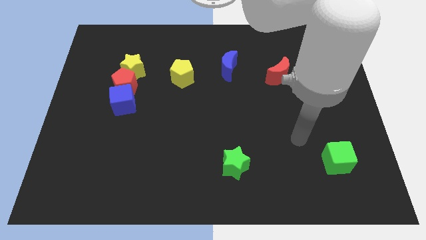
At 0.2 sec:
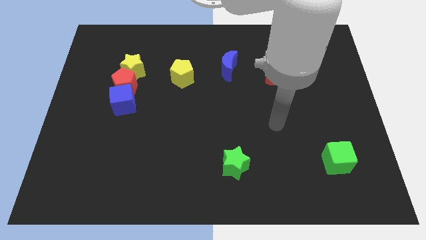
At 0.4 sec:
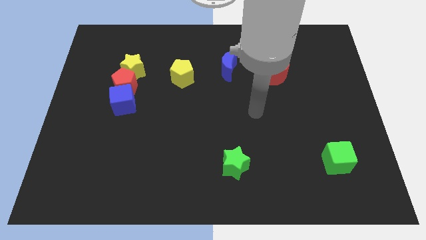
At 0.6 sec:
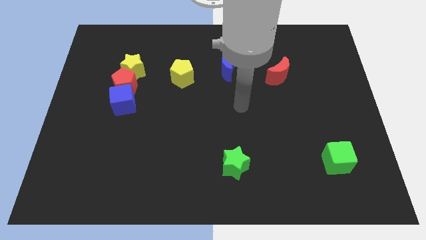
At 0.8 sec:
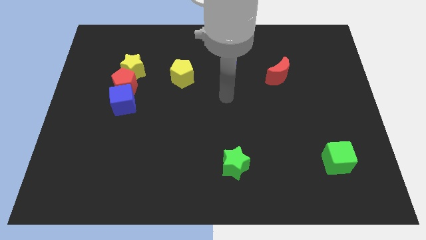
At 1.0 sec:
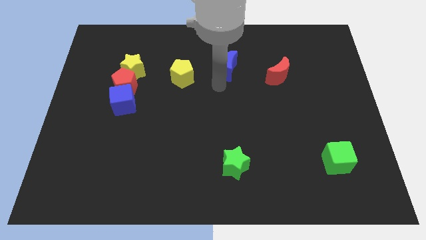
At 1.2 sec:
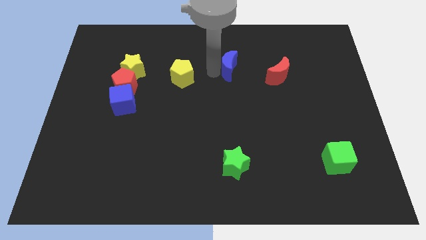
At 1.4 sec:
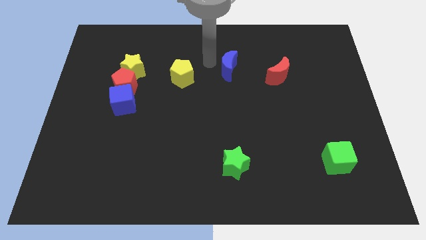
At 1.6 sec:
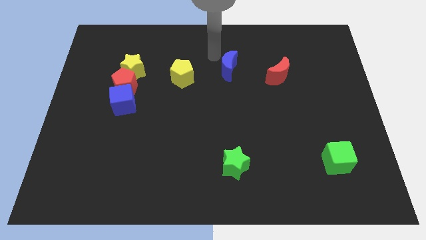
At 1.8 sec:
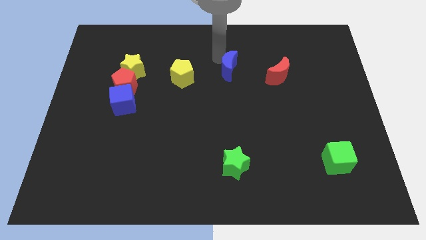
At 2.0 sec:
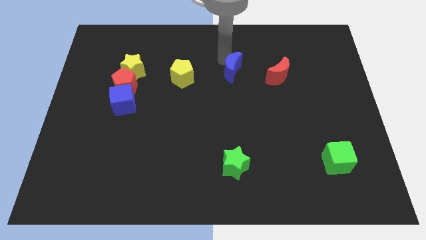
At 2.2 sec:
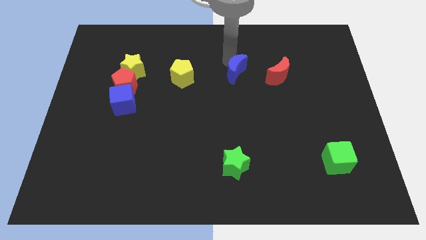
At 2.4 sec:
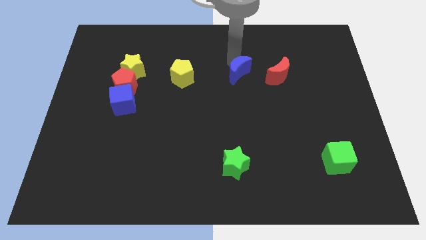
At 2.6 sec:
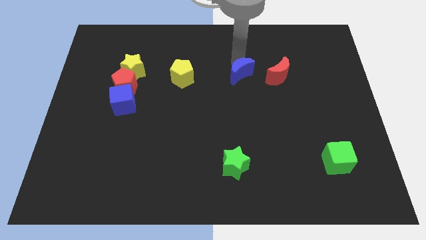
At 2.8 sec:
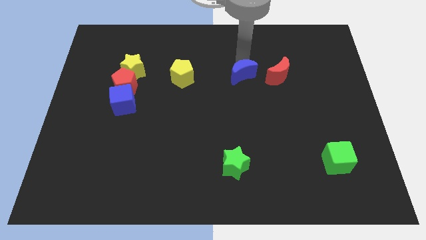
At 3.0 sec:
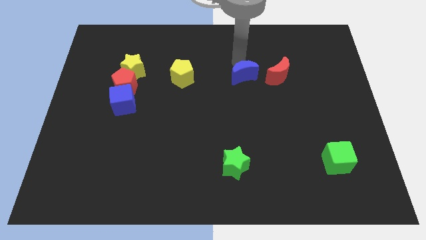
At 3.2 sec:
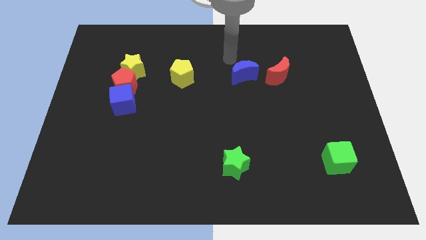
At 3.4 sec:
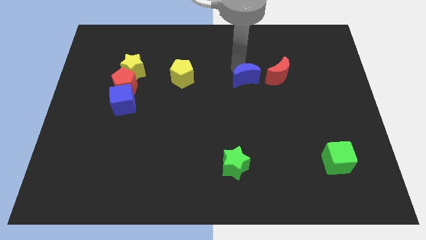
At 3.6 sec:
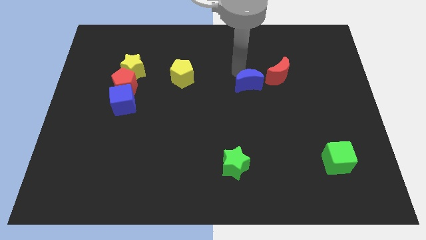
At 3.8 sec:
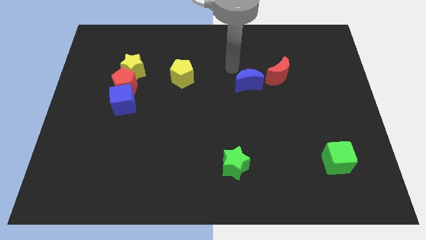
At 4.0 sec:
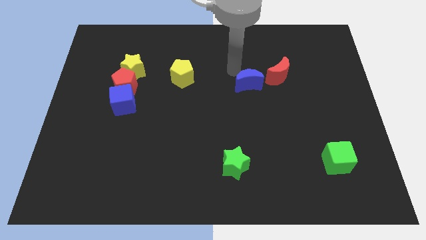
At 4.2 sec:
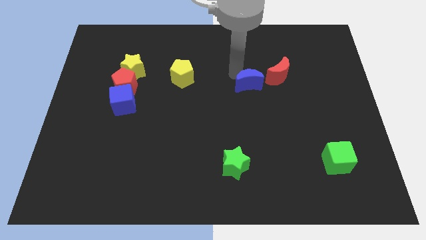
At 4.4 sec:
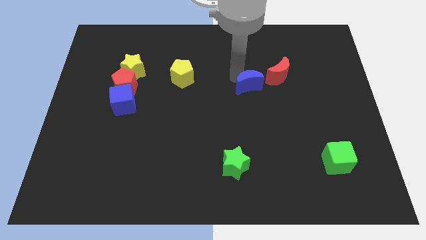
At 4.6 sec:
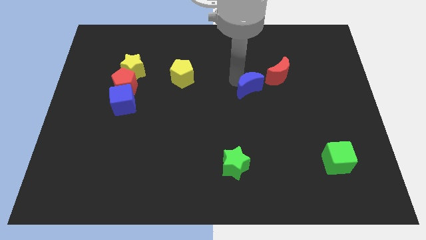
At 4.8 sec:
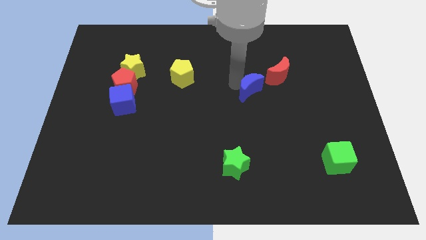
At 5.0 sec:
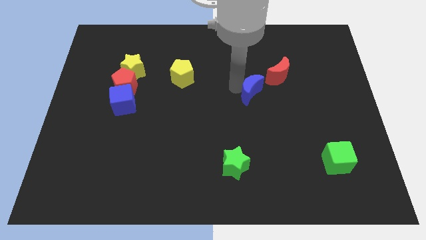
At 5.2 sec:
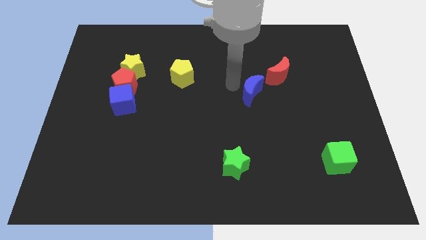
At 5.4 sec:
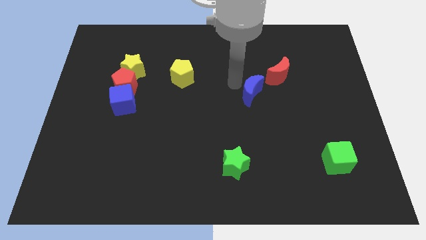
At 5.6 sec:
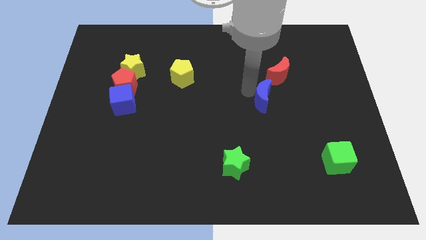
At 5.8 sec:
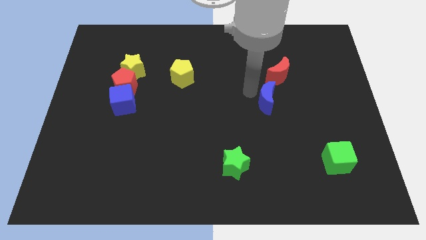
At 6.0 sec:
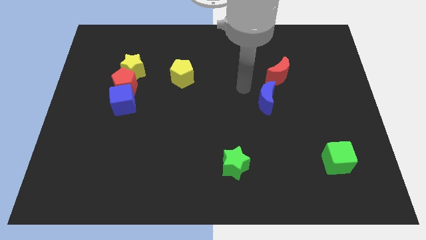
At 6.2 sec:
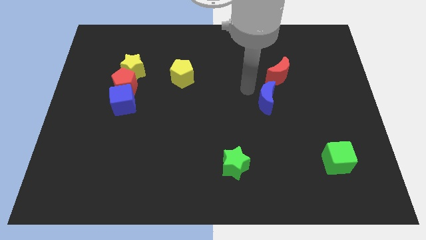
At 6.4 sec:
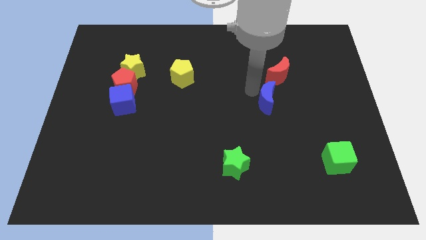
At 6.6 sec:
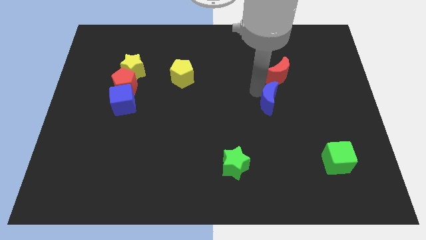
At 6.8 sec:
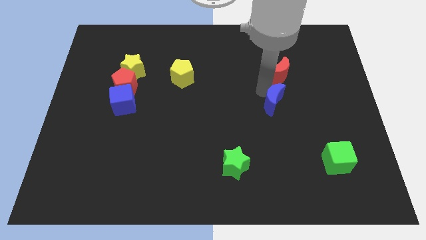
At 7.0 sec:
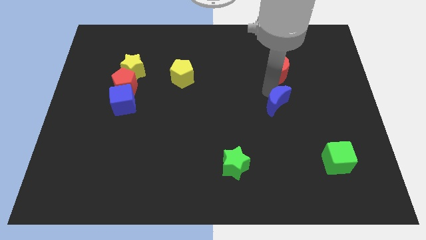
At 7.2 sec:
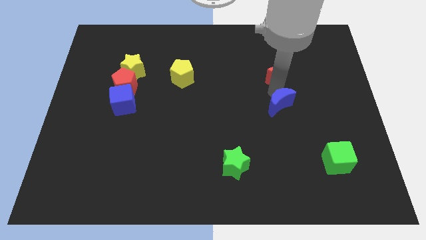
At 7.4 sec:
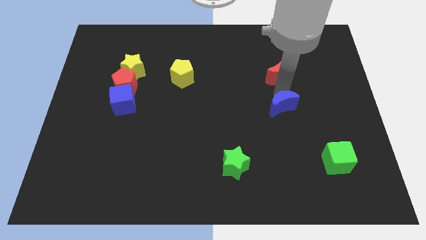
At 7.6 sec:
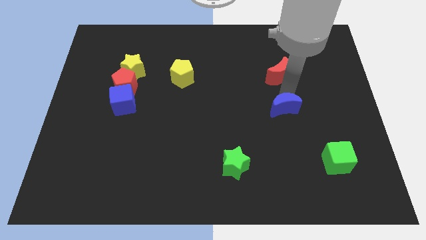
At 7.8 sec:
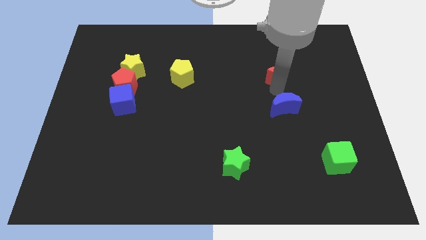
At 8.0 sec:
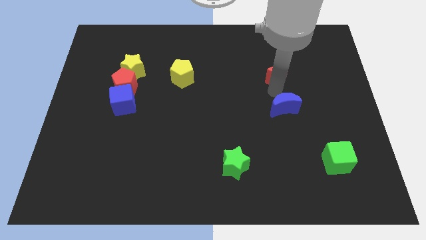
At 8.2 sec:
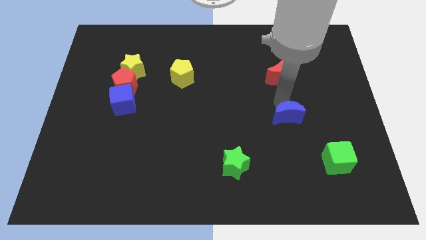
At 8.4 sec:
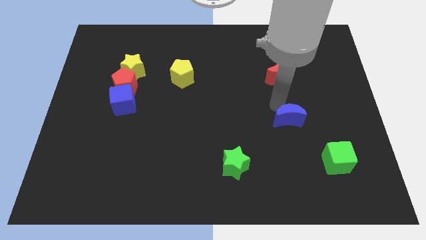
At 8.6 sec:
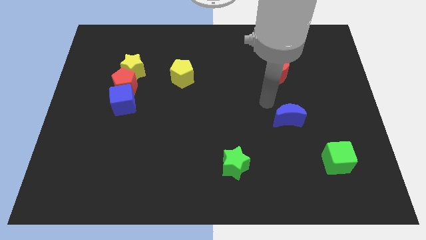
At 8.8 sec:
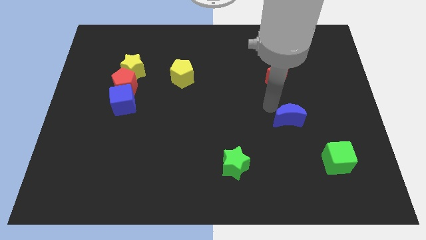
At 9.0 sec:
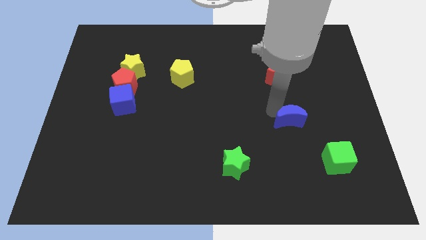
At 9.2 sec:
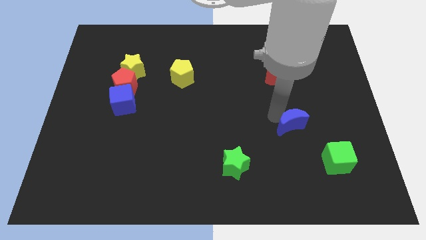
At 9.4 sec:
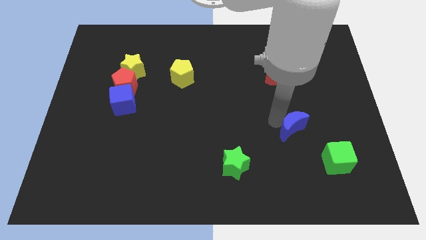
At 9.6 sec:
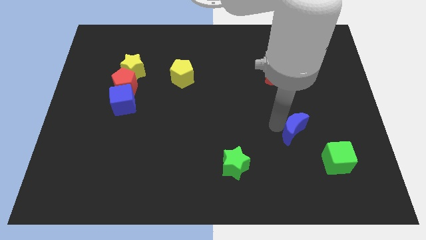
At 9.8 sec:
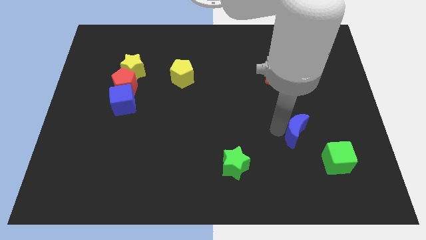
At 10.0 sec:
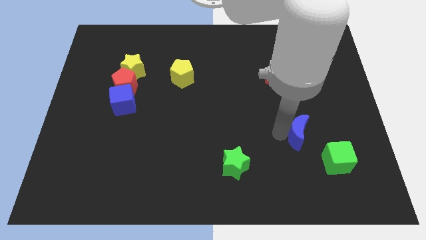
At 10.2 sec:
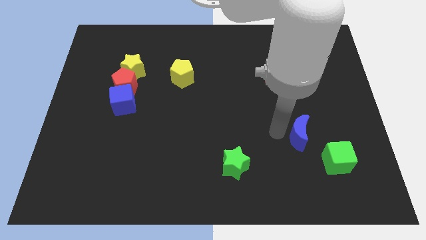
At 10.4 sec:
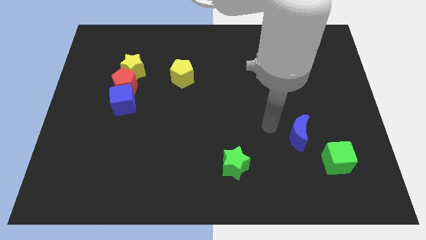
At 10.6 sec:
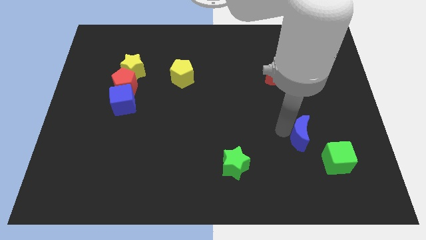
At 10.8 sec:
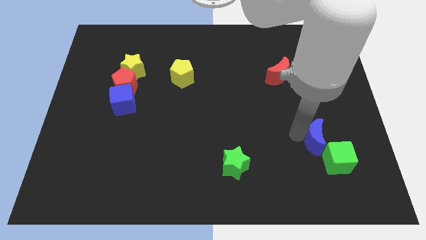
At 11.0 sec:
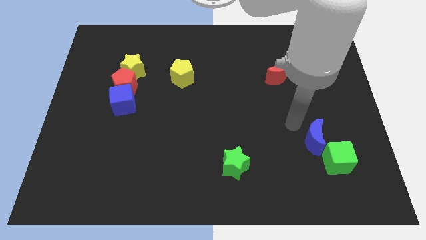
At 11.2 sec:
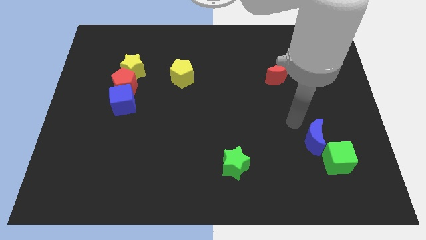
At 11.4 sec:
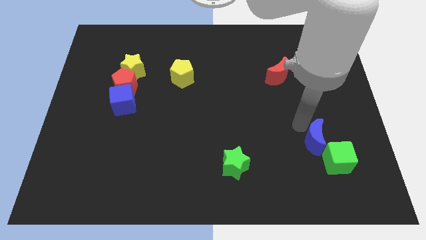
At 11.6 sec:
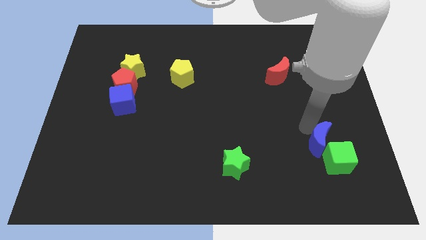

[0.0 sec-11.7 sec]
put the blue moon next to the green cube

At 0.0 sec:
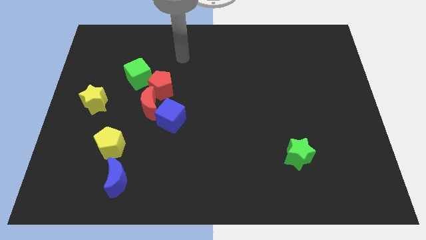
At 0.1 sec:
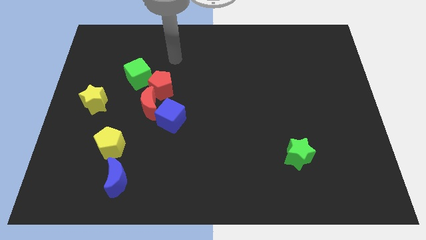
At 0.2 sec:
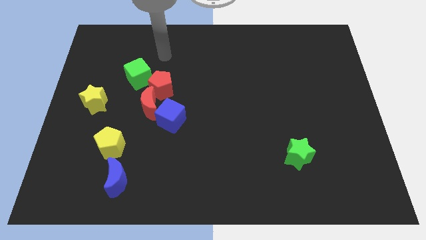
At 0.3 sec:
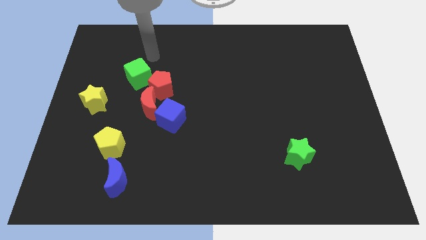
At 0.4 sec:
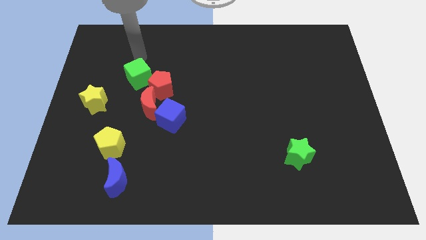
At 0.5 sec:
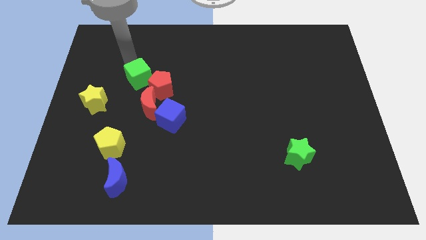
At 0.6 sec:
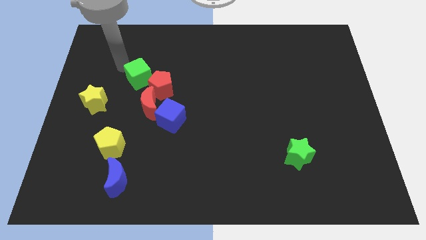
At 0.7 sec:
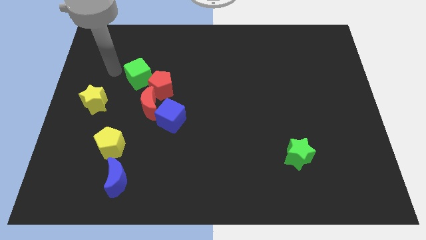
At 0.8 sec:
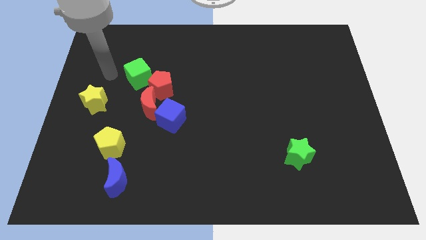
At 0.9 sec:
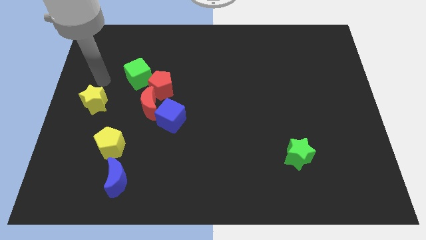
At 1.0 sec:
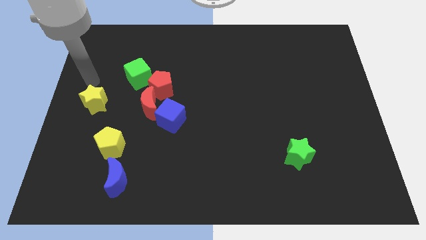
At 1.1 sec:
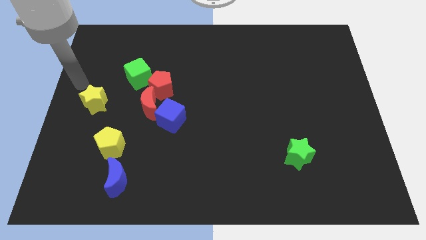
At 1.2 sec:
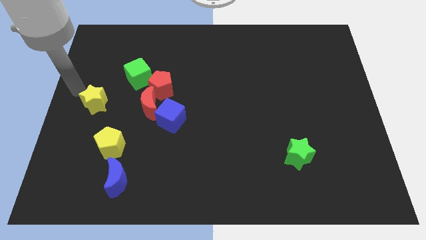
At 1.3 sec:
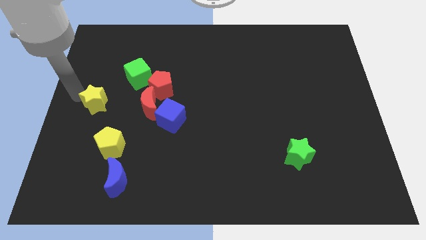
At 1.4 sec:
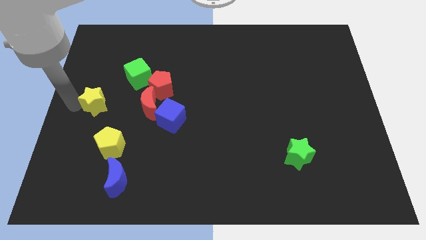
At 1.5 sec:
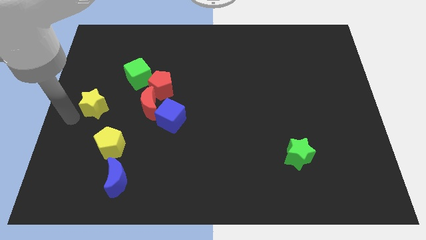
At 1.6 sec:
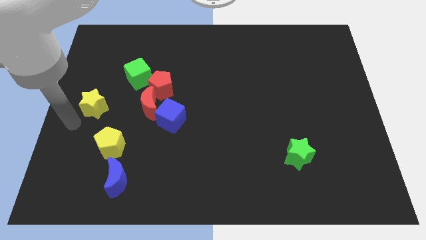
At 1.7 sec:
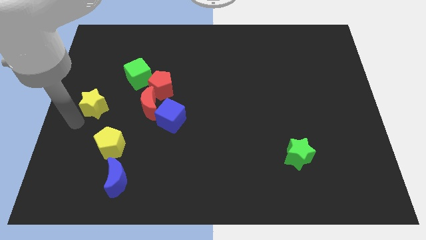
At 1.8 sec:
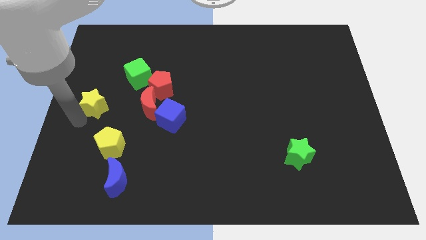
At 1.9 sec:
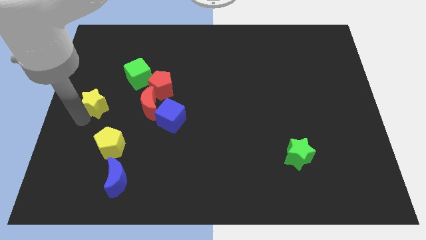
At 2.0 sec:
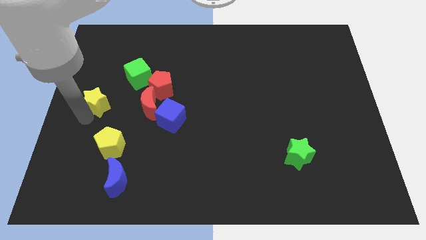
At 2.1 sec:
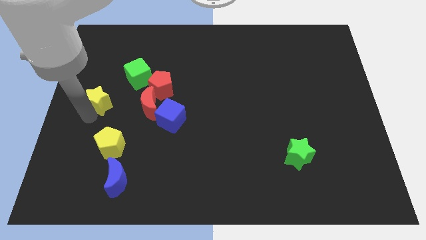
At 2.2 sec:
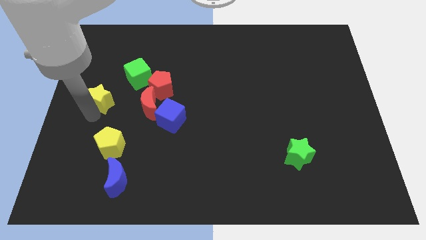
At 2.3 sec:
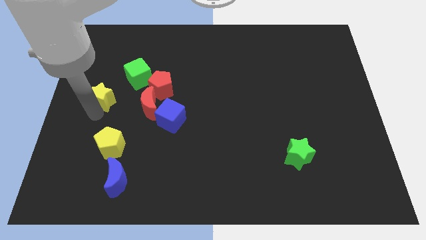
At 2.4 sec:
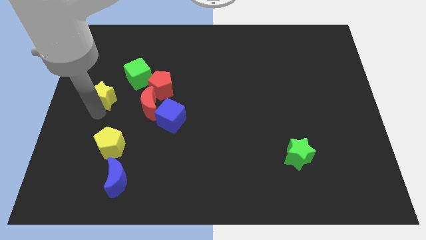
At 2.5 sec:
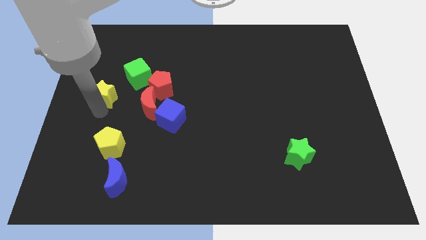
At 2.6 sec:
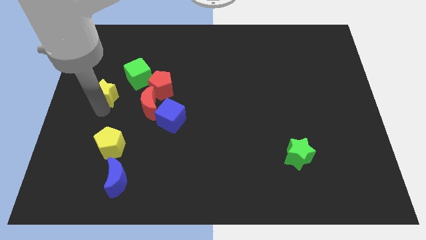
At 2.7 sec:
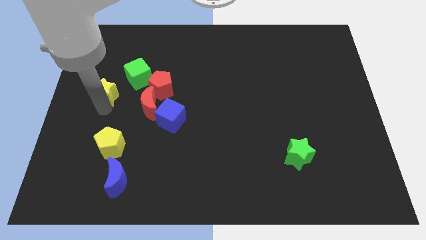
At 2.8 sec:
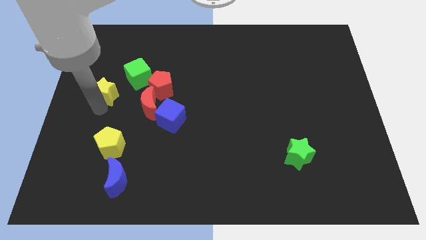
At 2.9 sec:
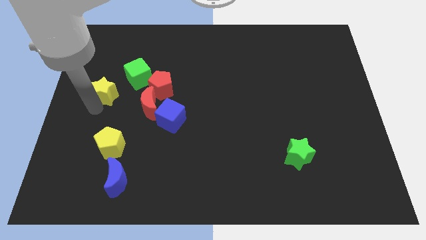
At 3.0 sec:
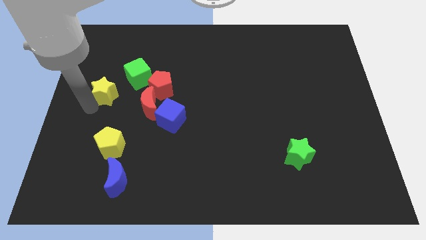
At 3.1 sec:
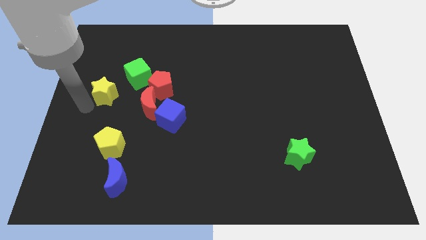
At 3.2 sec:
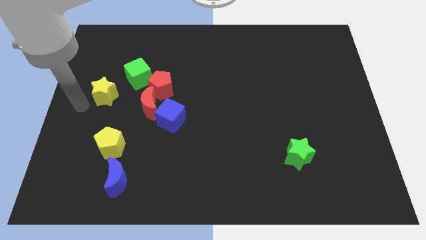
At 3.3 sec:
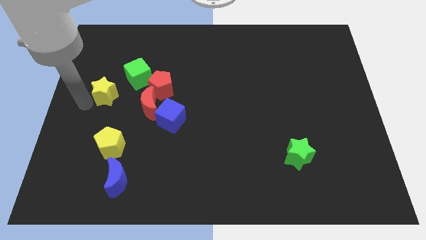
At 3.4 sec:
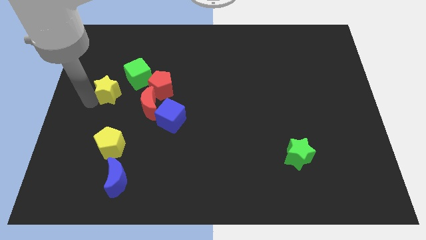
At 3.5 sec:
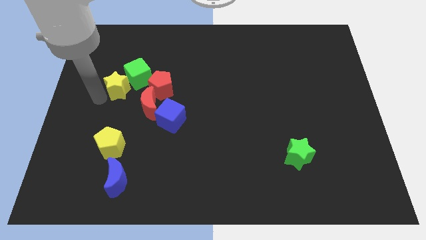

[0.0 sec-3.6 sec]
slide the yellow star towards the green cube
